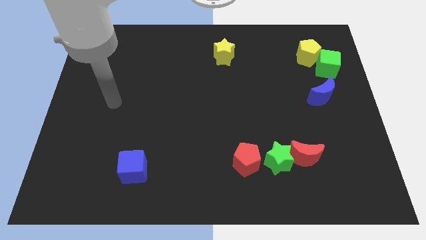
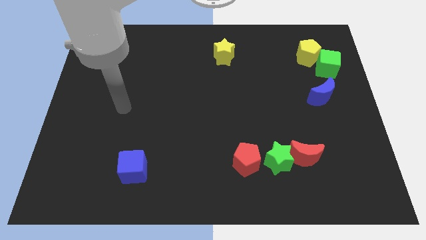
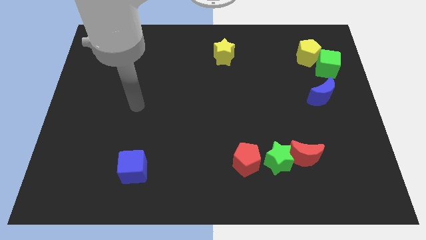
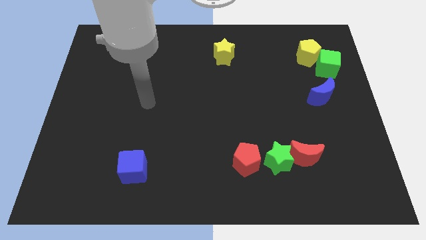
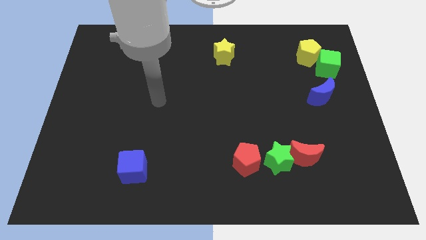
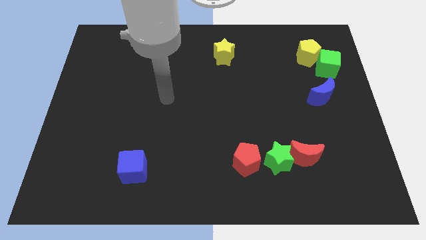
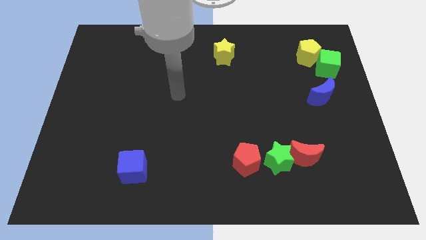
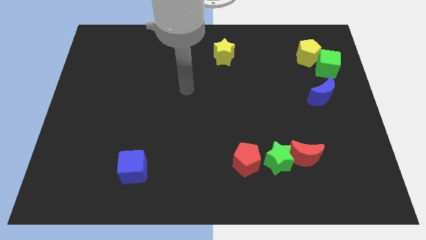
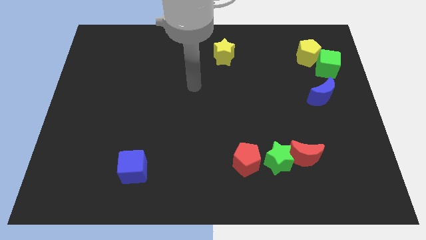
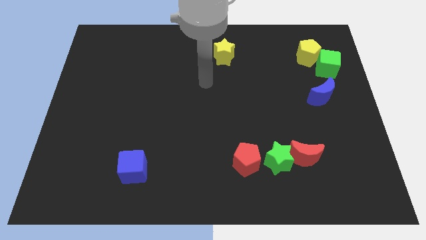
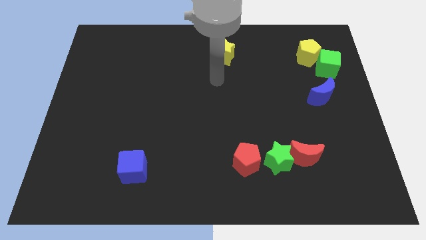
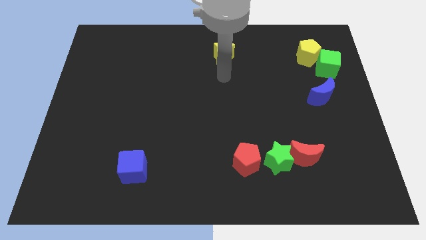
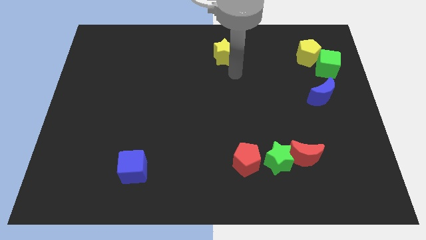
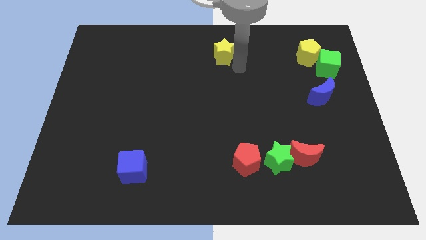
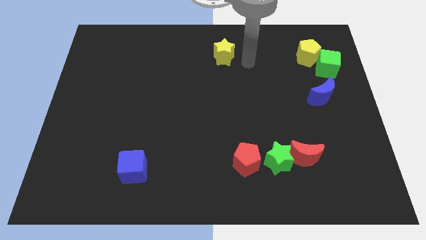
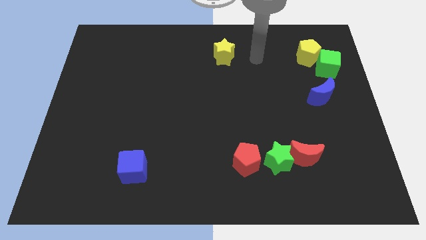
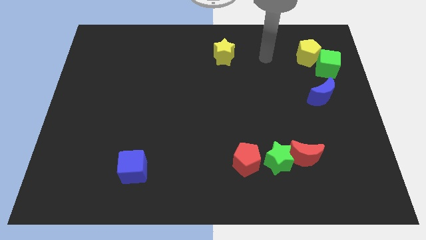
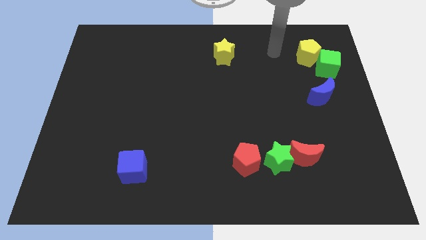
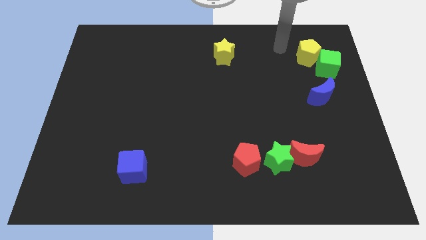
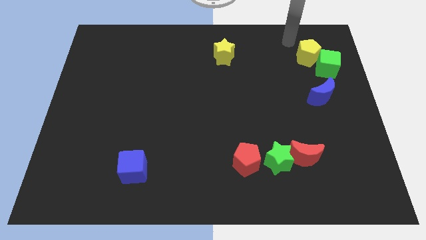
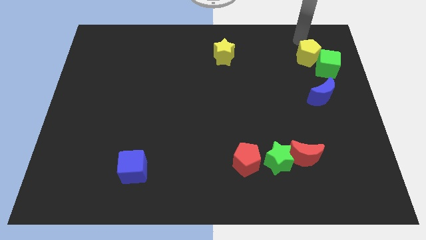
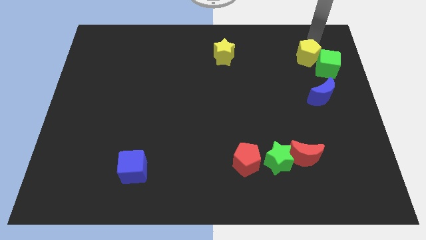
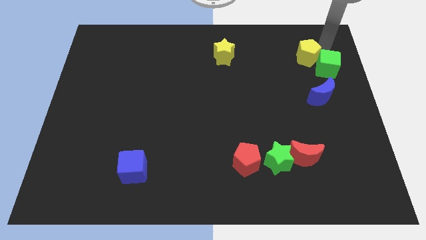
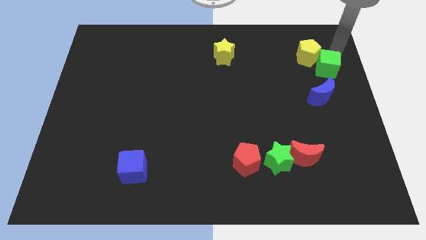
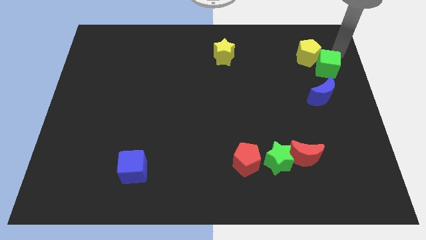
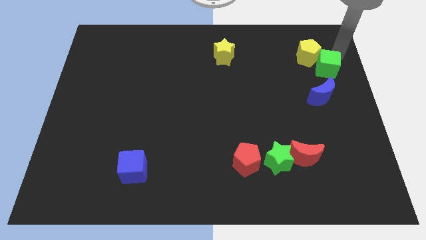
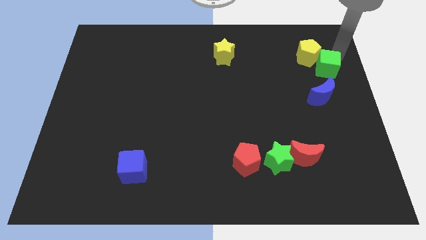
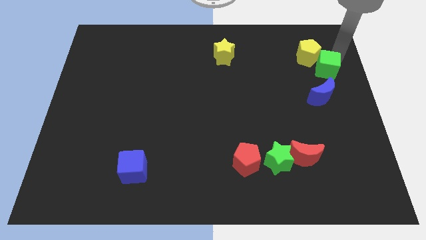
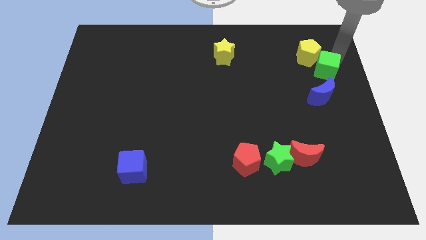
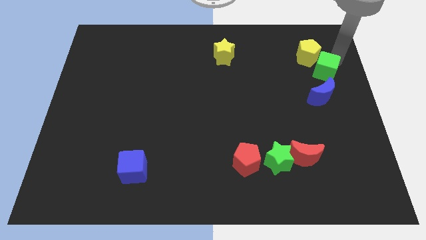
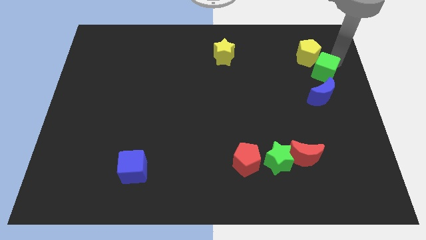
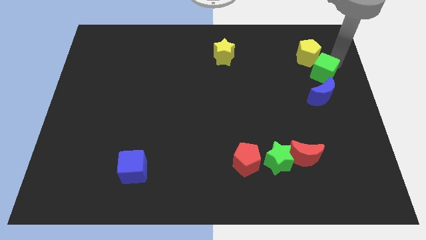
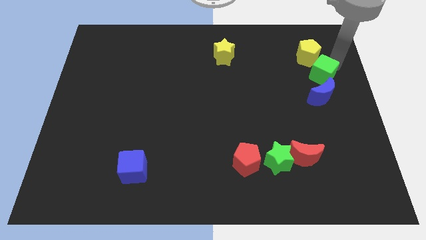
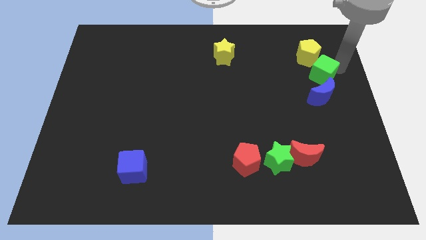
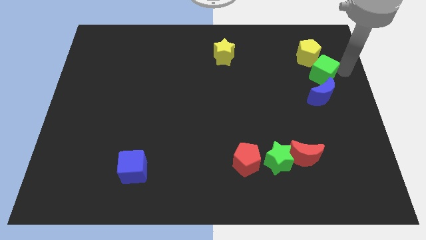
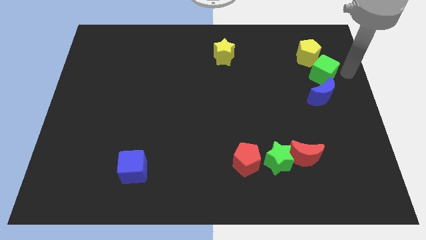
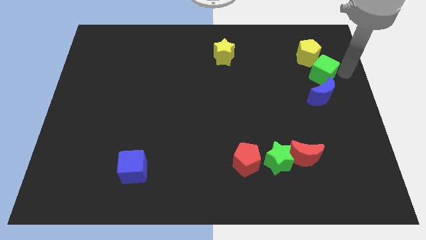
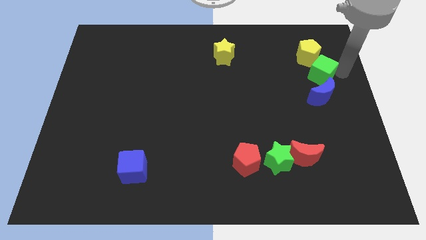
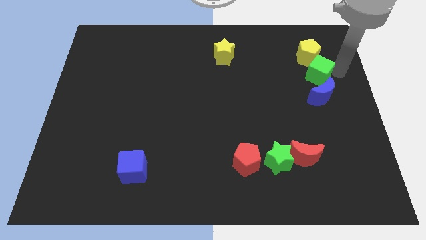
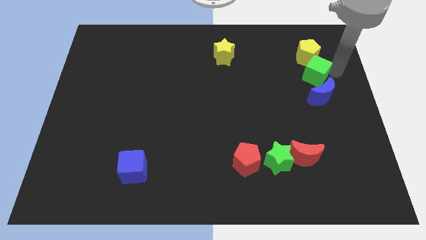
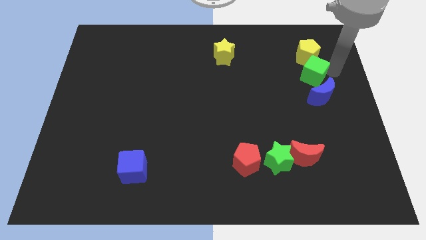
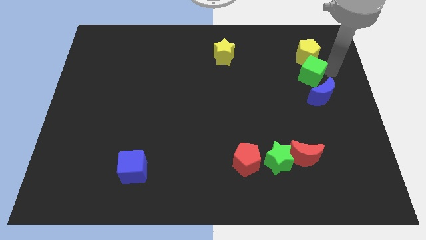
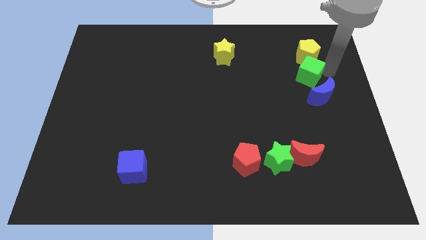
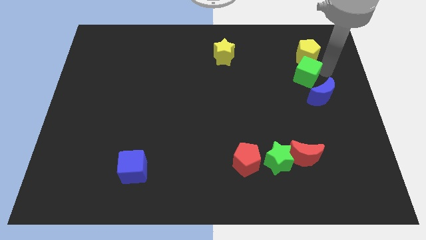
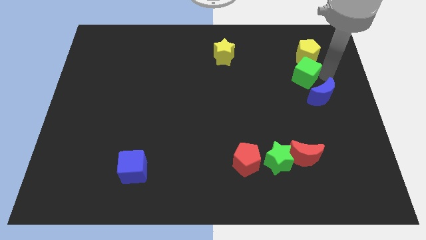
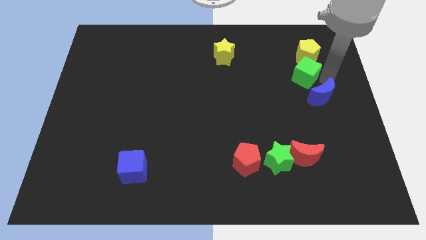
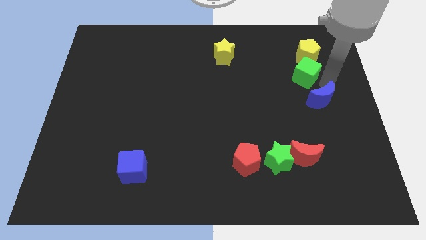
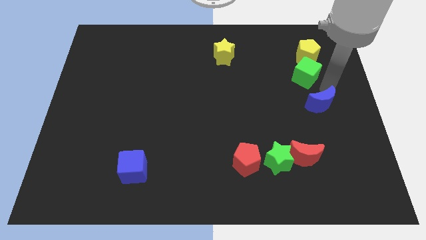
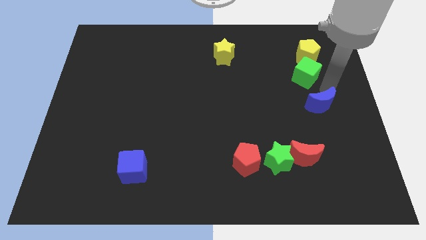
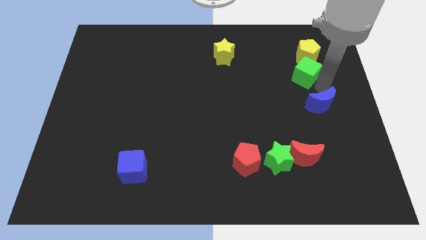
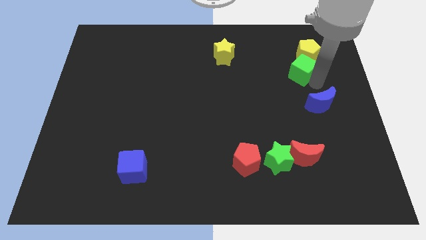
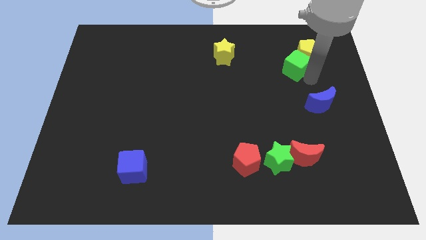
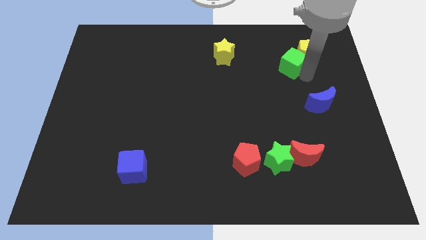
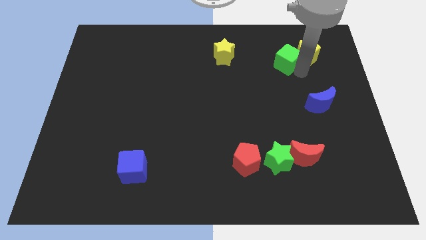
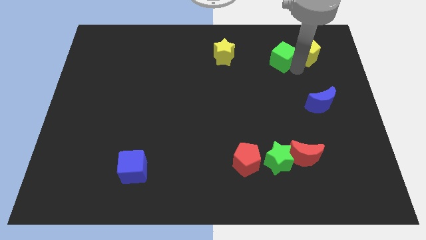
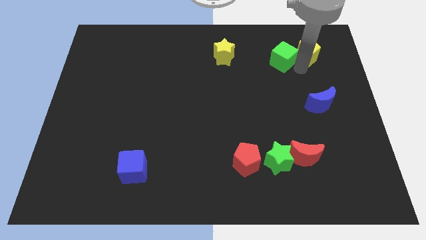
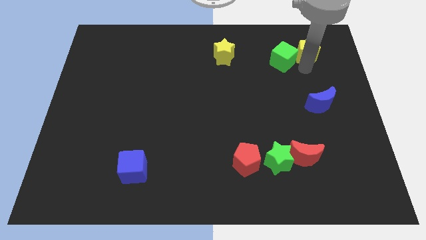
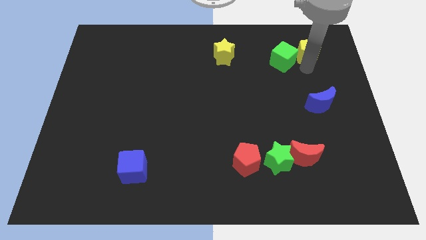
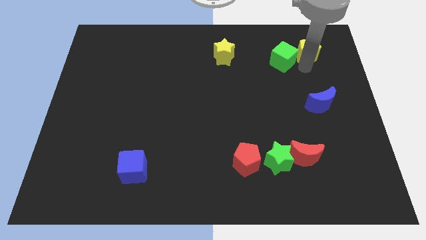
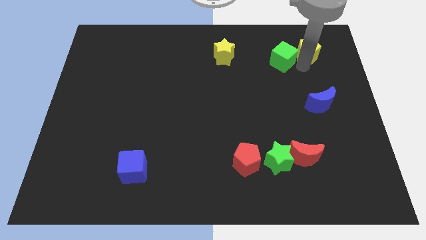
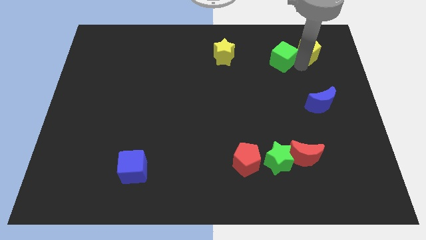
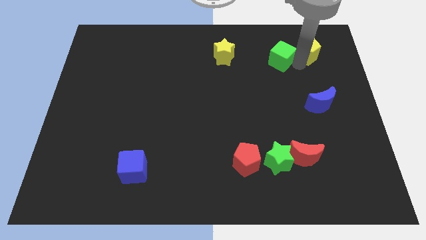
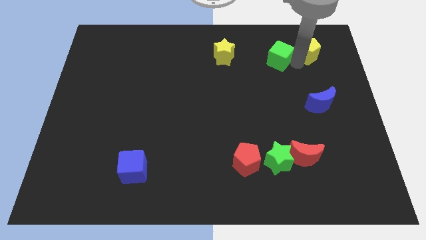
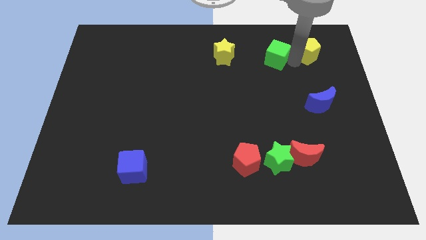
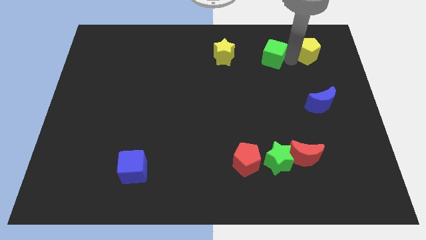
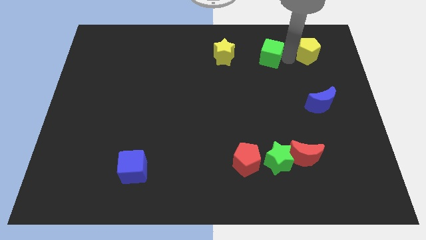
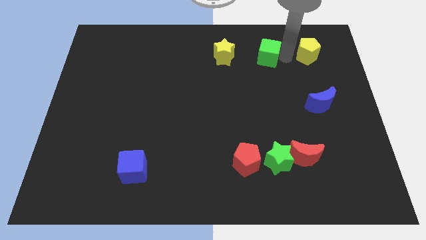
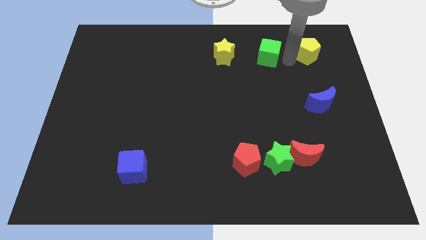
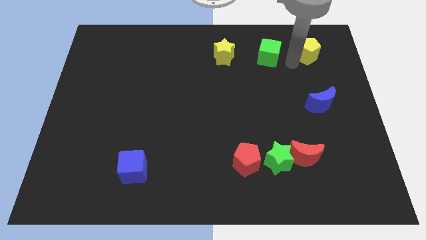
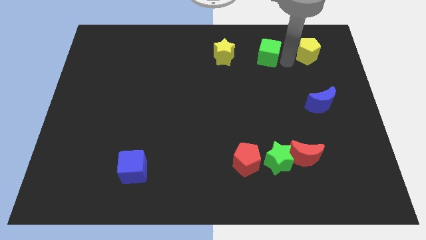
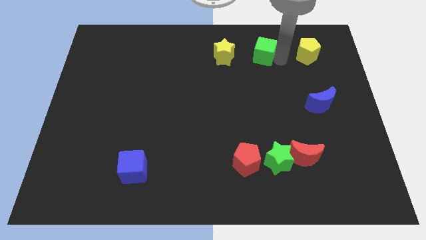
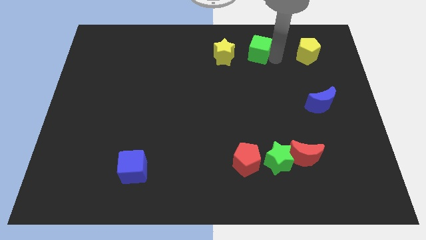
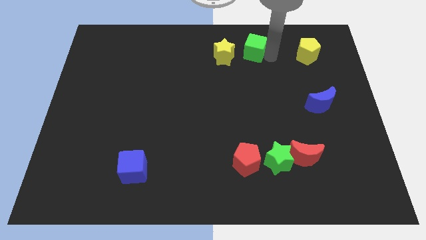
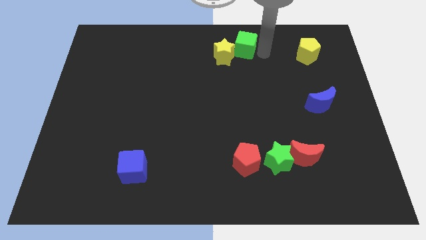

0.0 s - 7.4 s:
move the green cube to the yellow star
